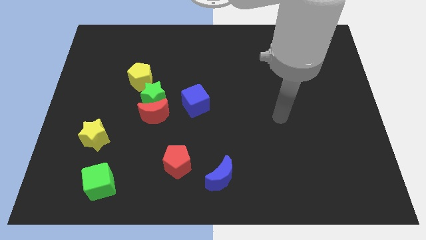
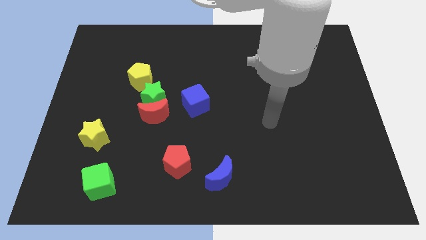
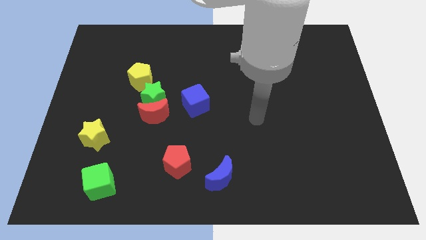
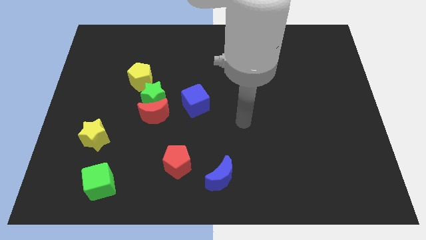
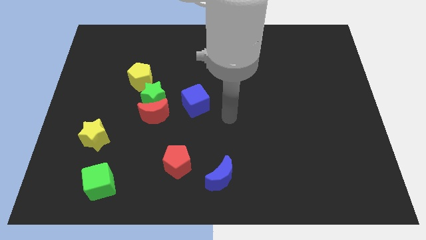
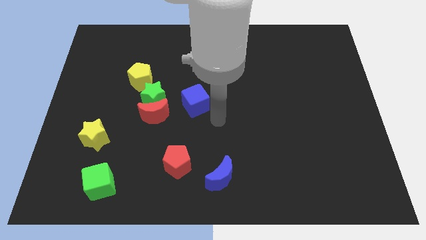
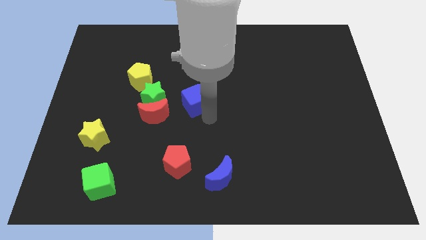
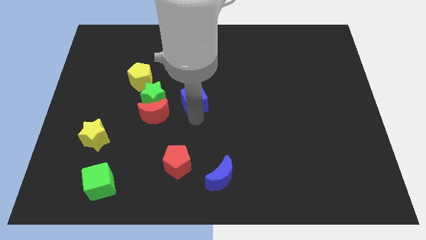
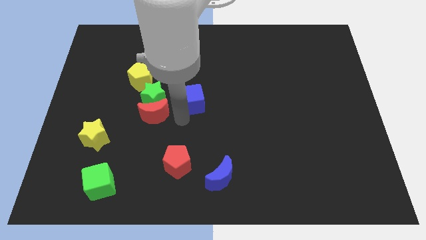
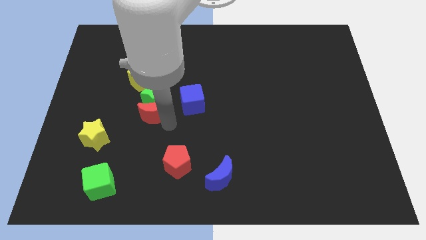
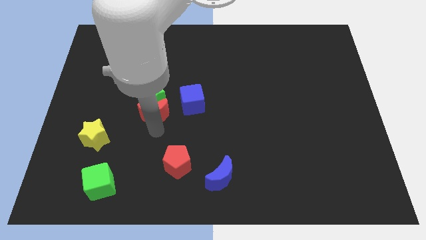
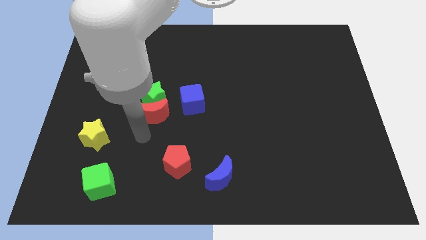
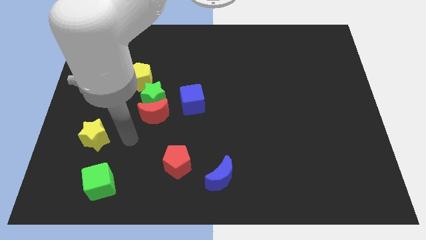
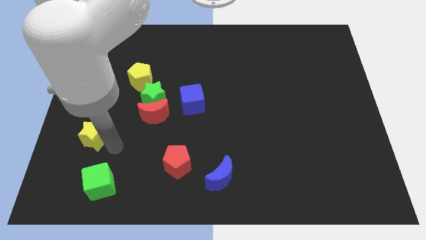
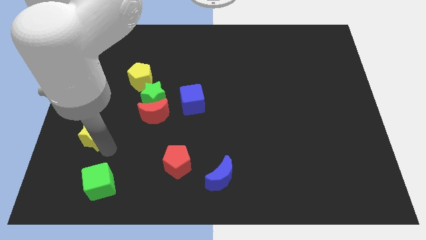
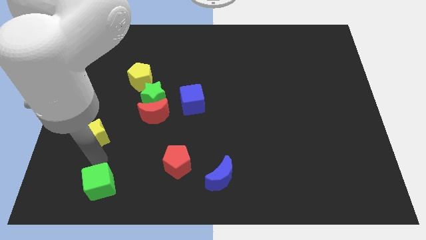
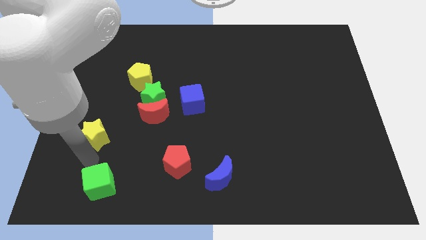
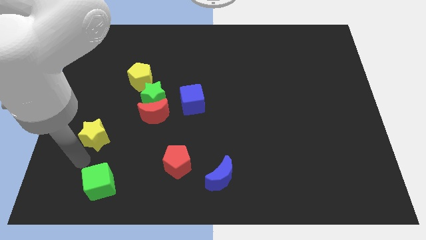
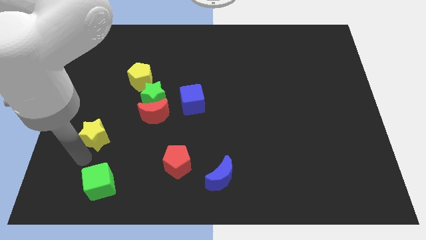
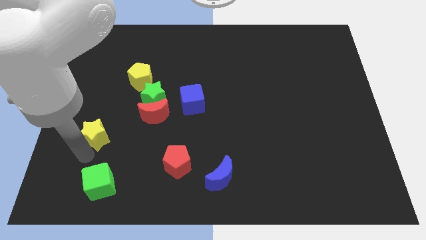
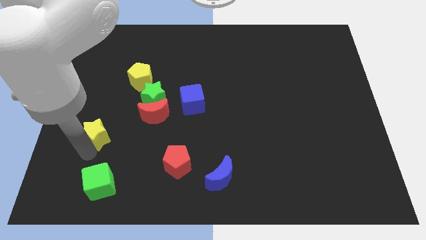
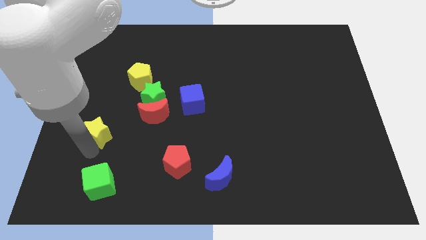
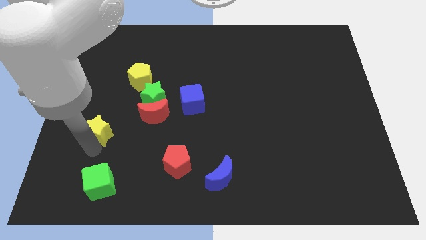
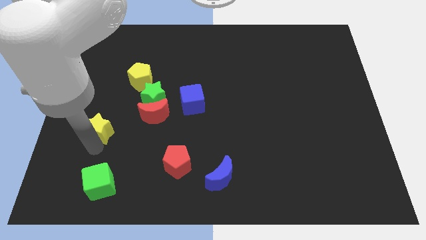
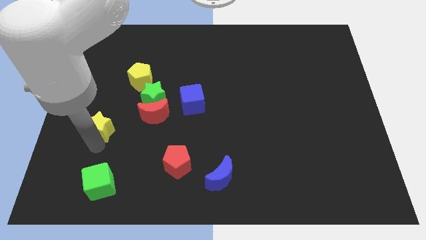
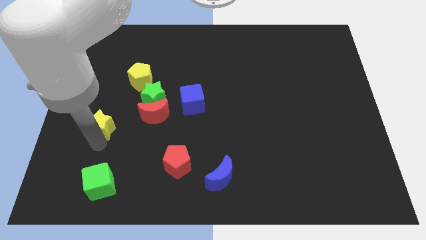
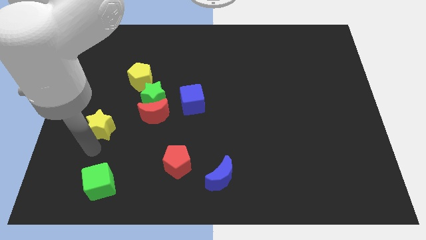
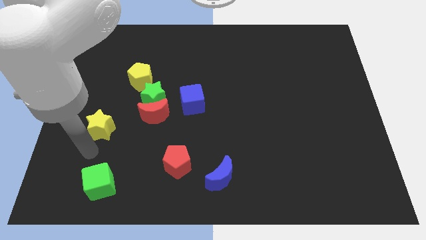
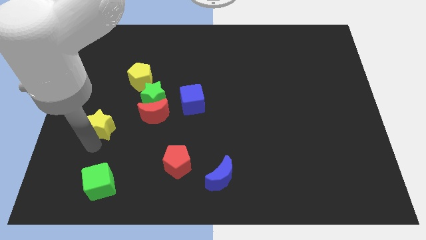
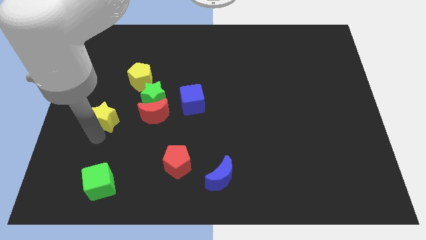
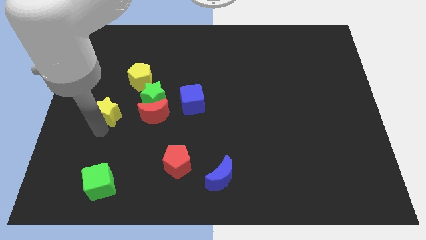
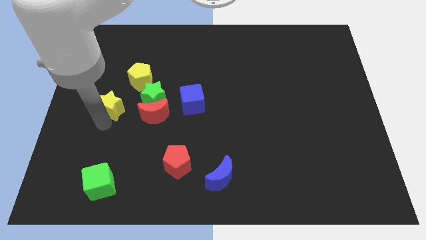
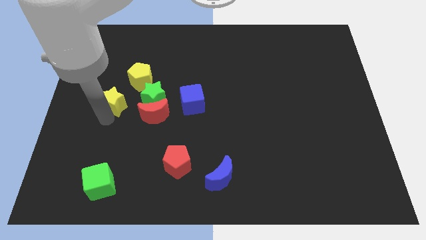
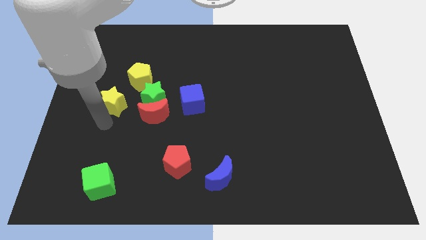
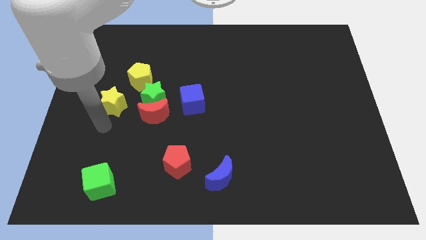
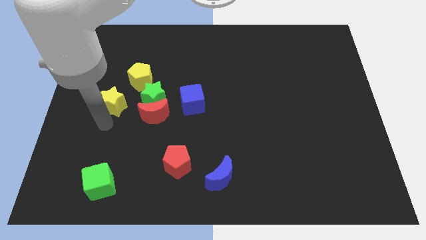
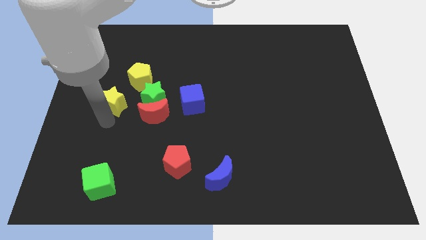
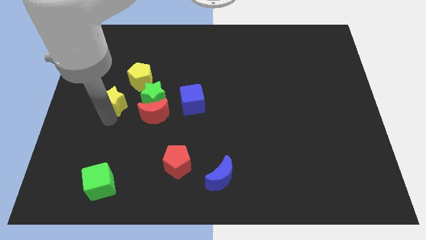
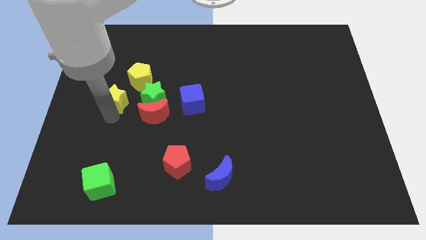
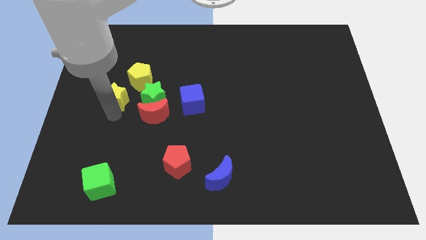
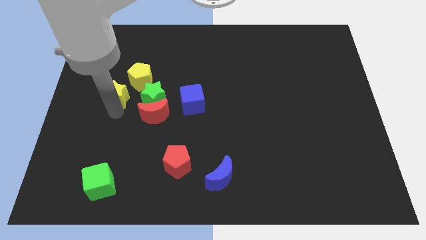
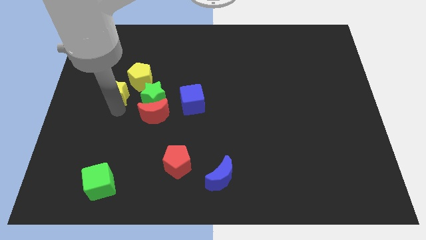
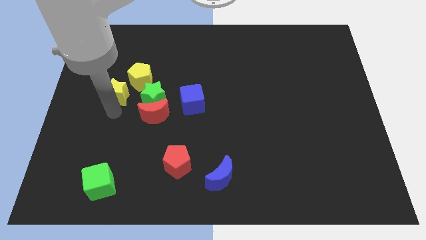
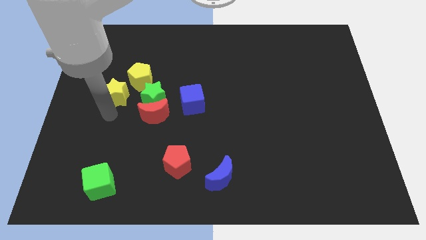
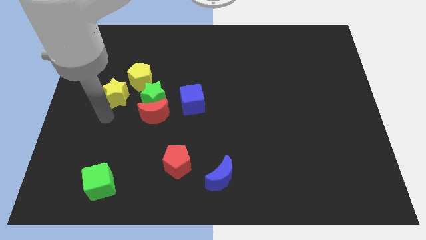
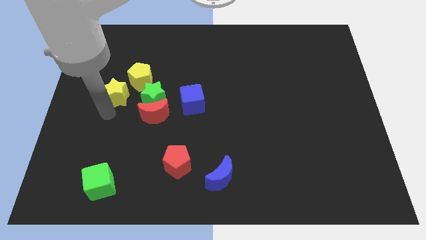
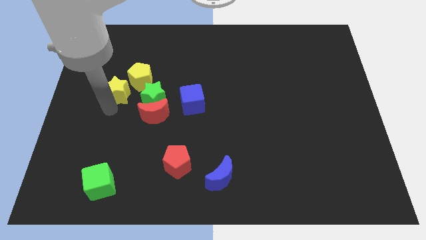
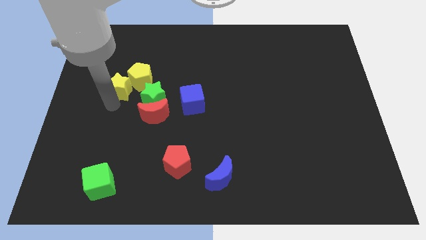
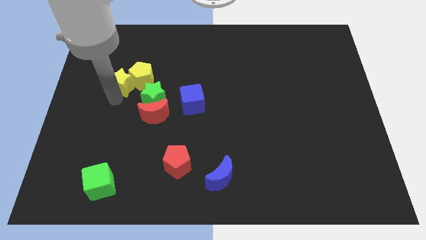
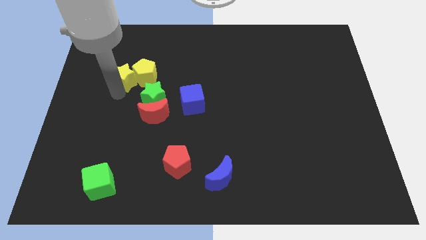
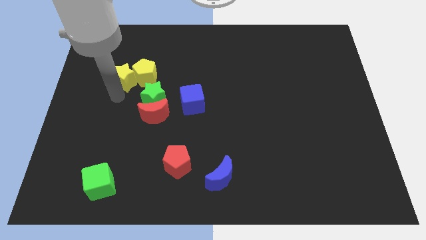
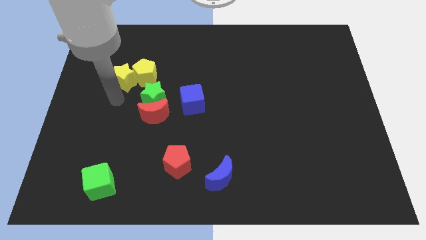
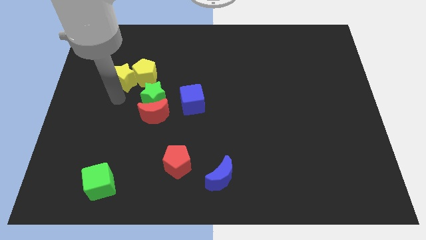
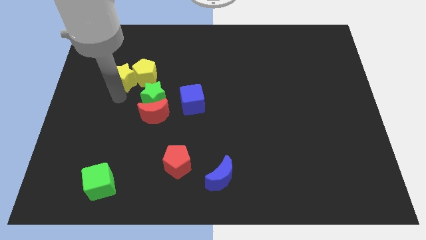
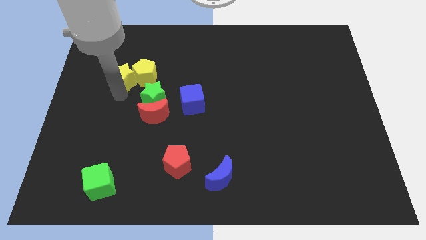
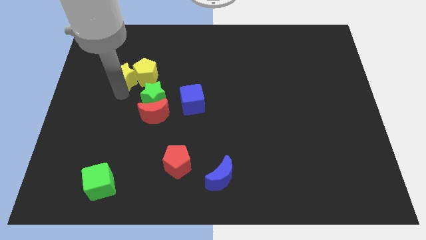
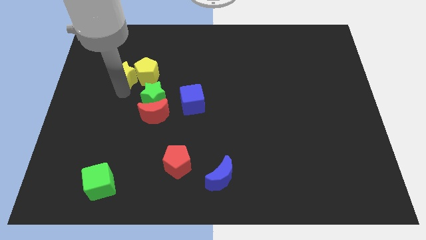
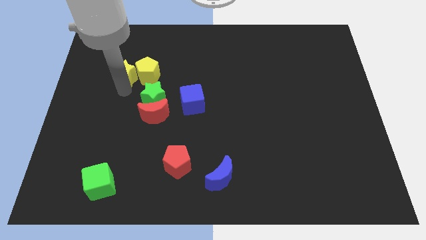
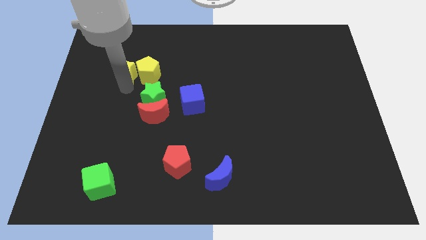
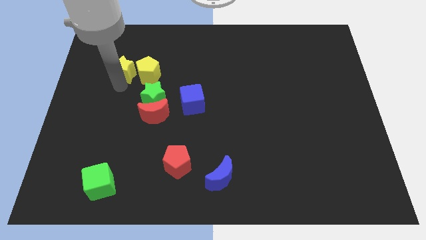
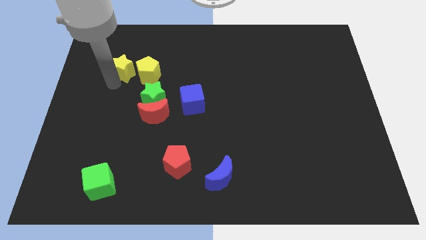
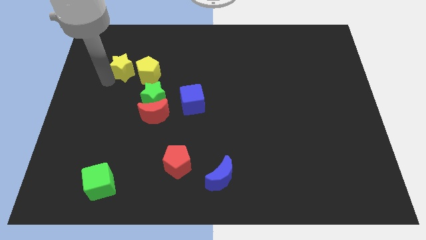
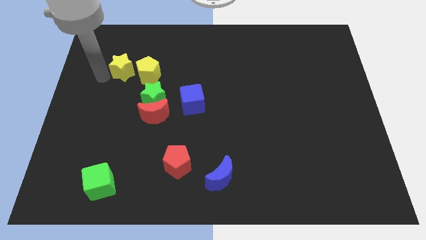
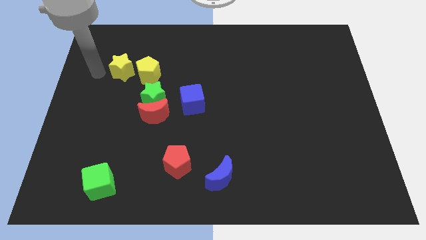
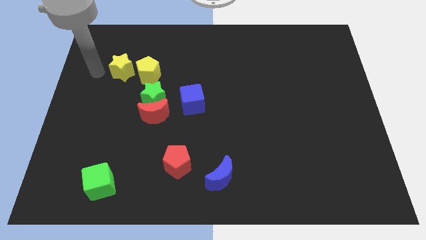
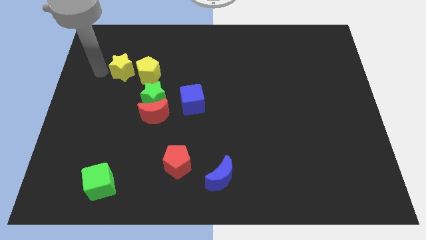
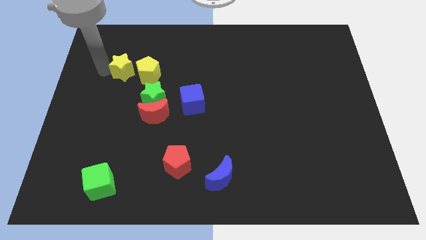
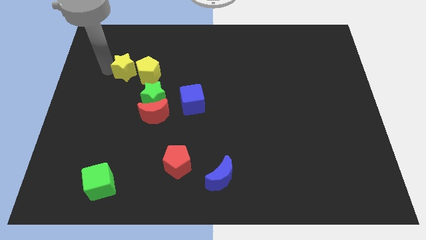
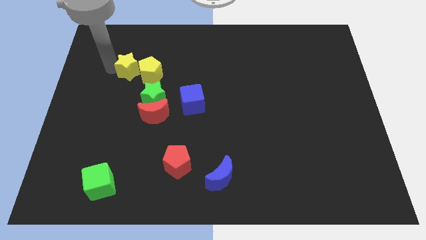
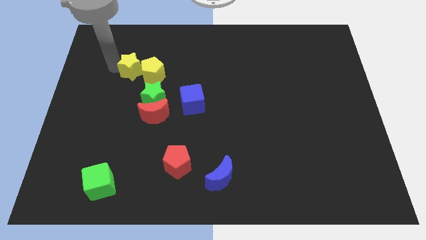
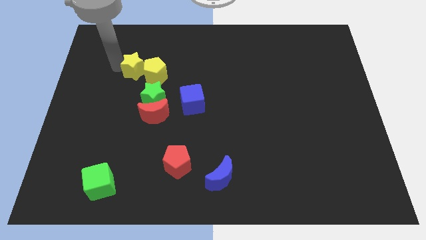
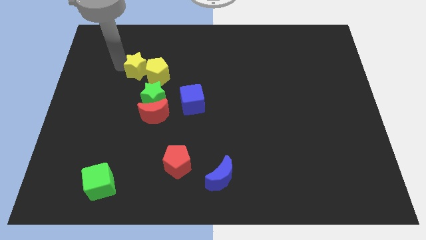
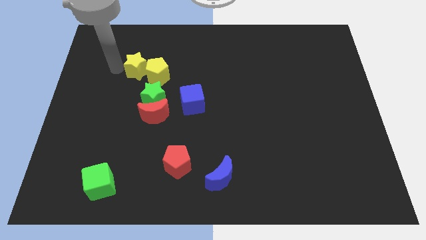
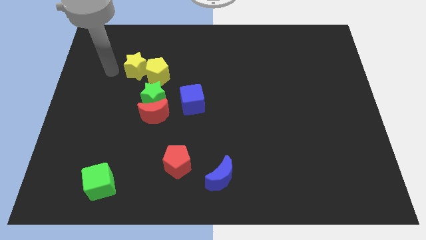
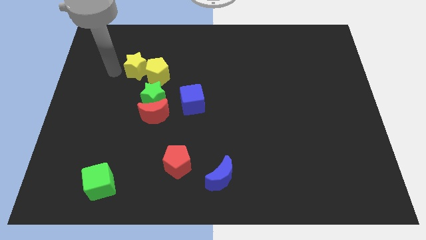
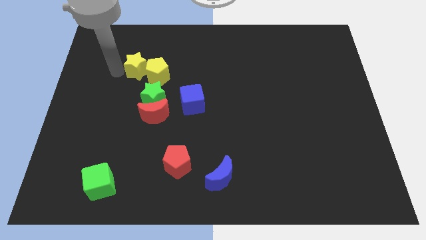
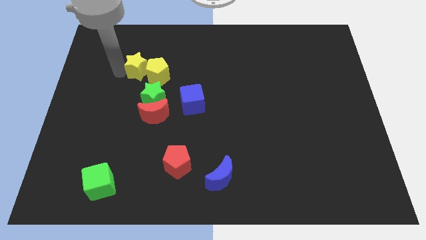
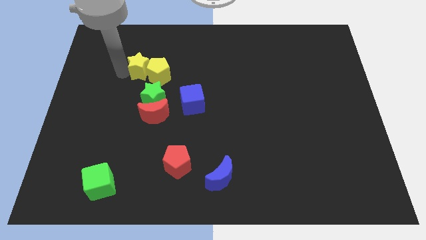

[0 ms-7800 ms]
move the yellow star above the green star
